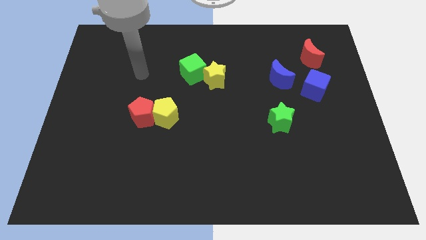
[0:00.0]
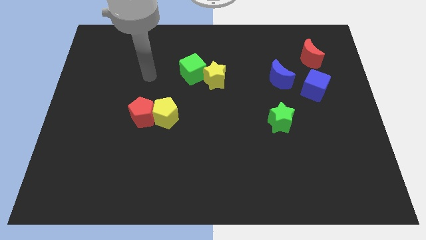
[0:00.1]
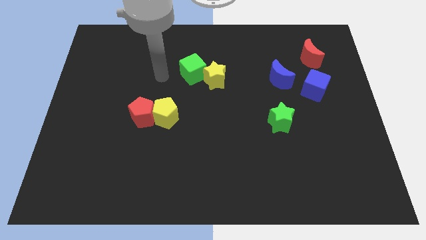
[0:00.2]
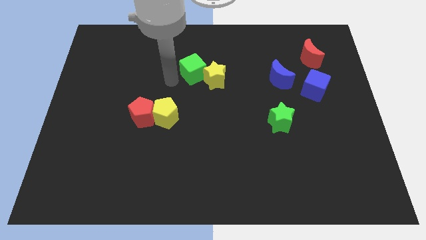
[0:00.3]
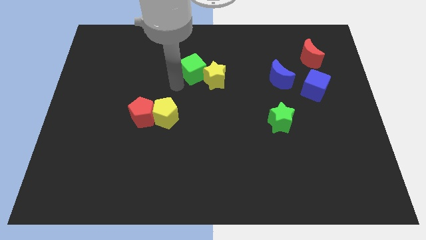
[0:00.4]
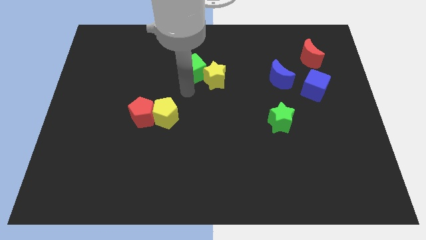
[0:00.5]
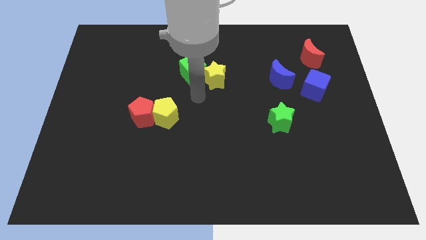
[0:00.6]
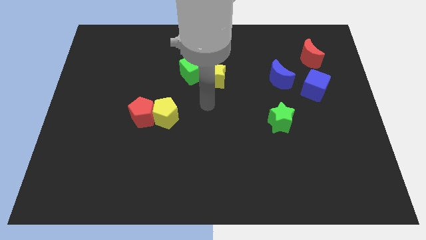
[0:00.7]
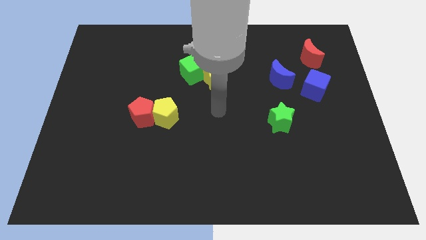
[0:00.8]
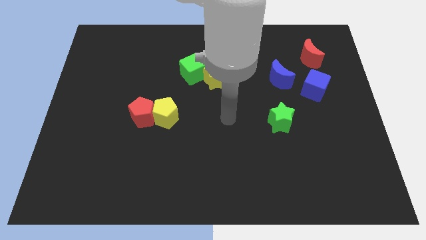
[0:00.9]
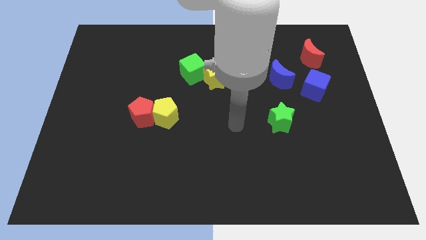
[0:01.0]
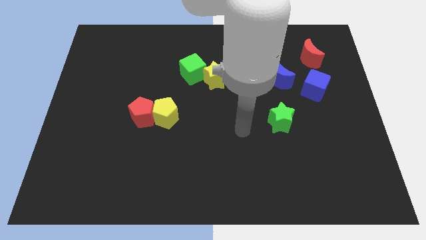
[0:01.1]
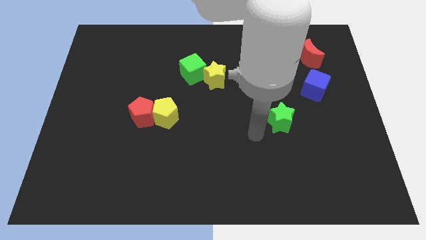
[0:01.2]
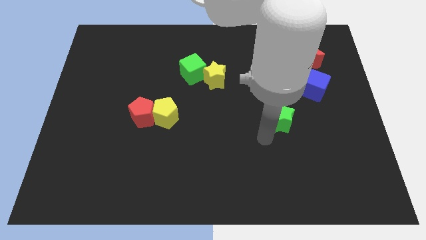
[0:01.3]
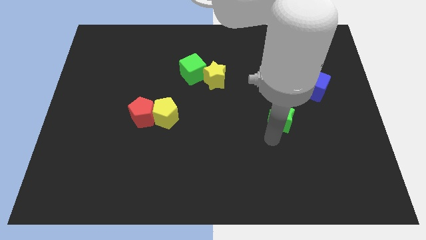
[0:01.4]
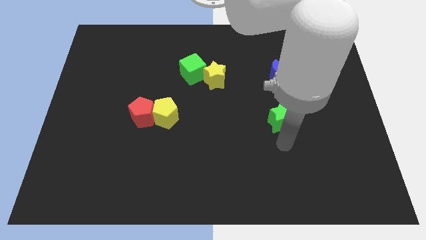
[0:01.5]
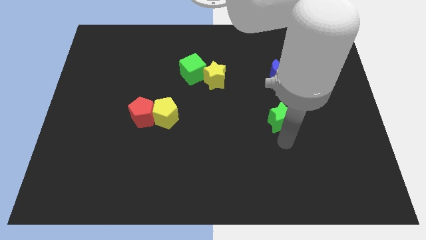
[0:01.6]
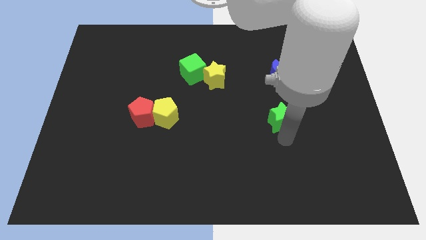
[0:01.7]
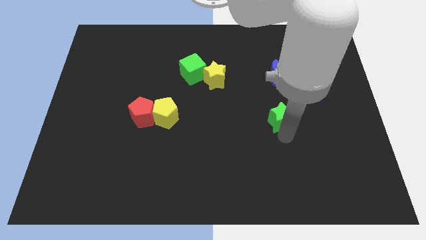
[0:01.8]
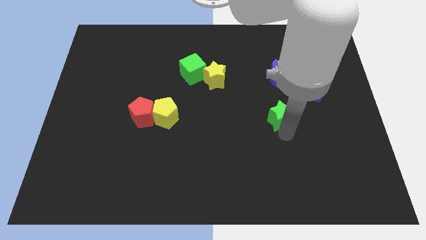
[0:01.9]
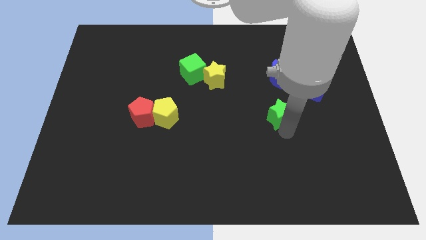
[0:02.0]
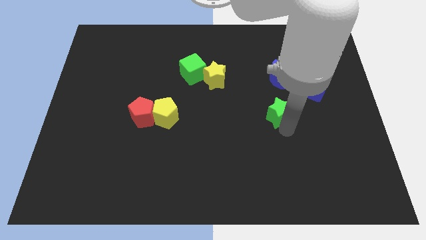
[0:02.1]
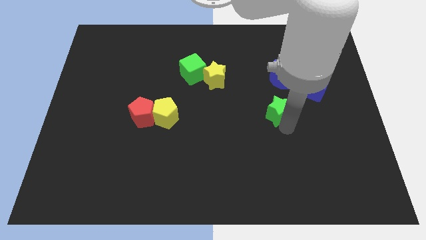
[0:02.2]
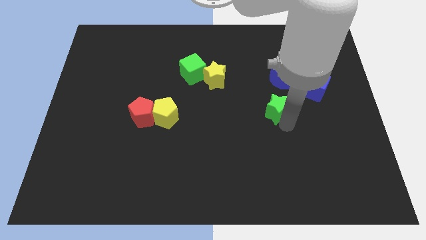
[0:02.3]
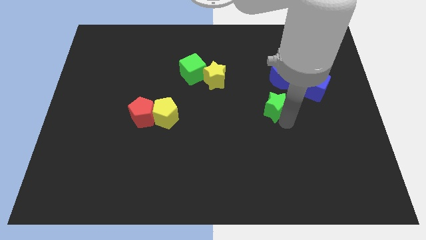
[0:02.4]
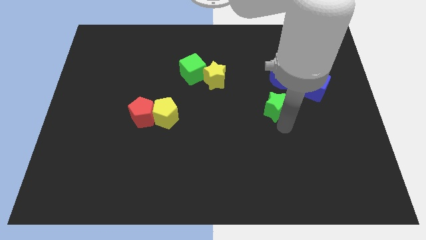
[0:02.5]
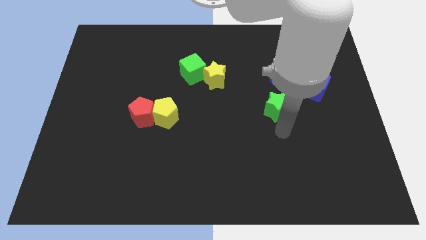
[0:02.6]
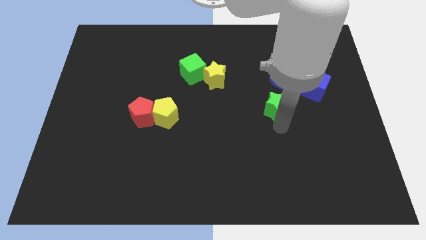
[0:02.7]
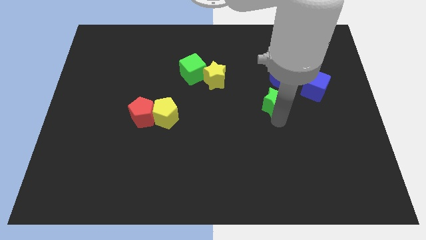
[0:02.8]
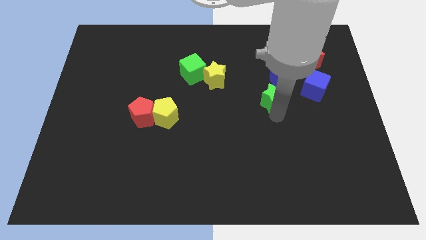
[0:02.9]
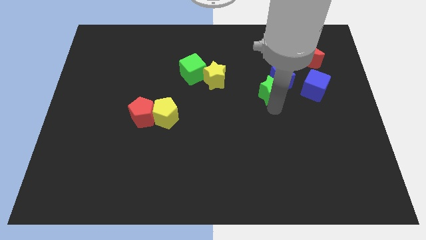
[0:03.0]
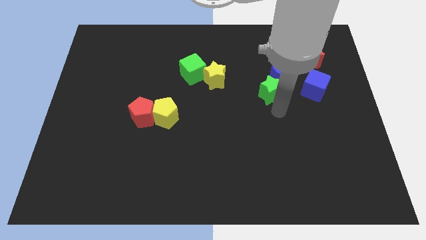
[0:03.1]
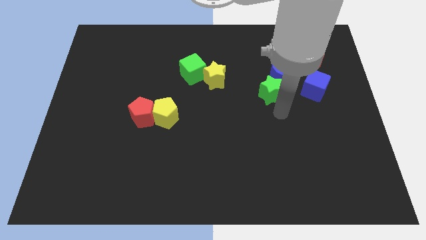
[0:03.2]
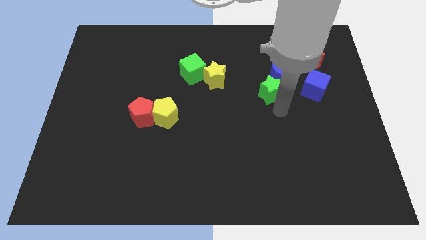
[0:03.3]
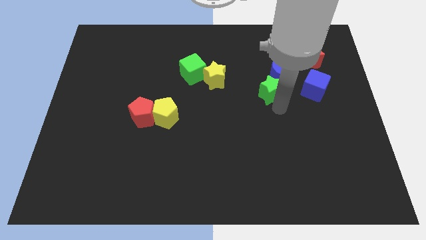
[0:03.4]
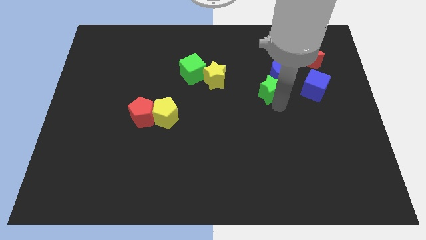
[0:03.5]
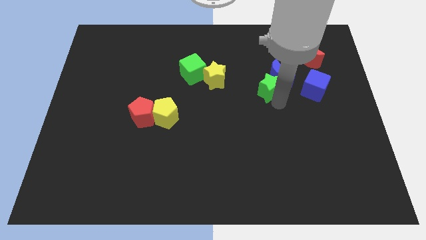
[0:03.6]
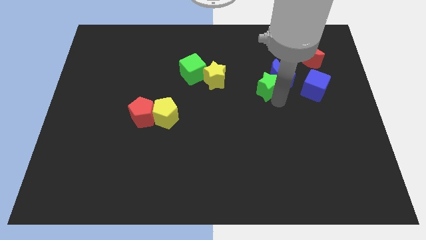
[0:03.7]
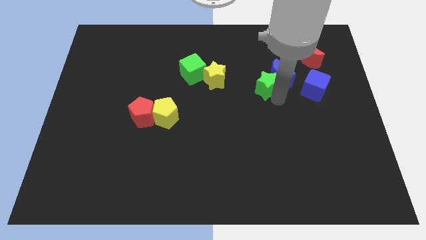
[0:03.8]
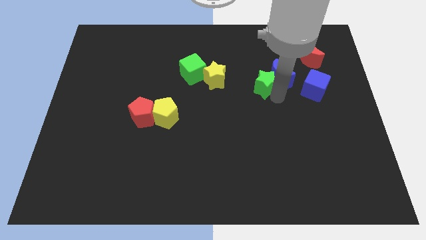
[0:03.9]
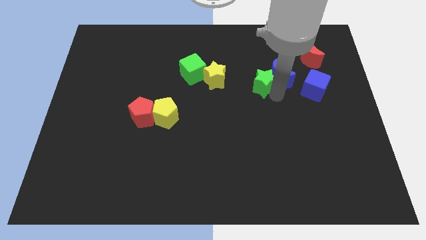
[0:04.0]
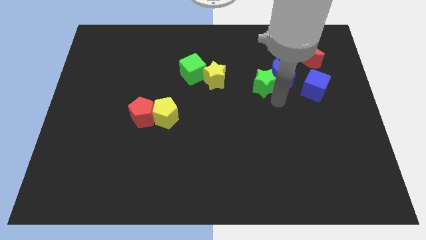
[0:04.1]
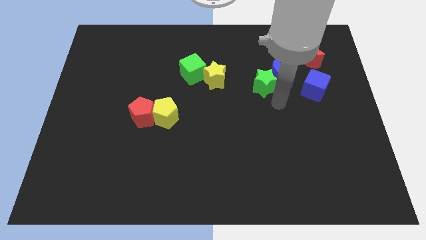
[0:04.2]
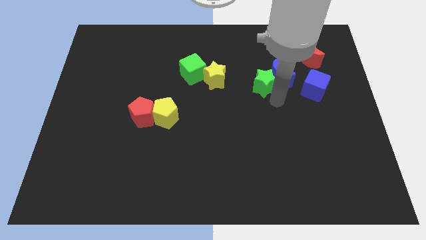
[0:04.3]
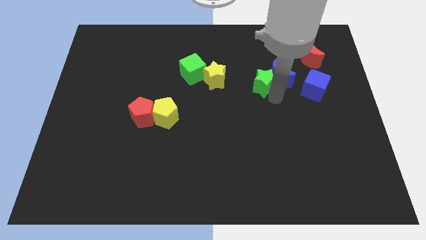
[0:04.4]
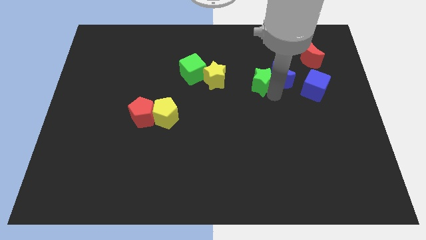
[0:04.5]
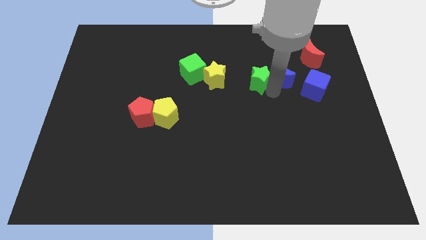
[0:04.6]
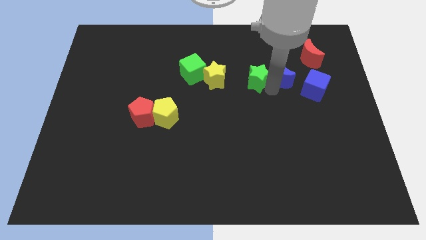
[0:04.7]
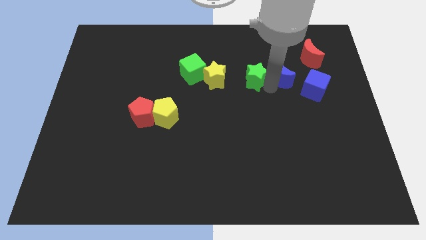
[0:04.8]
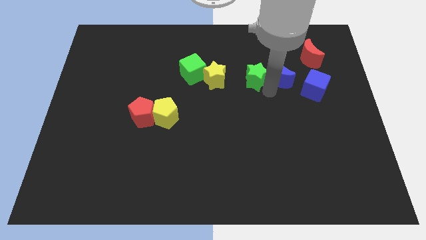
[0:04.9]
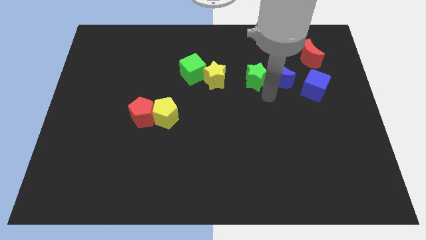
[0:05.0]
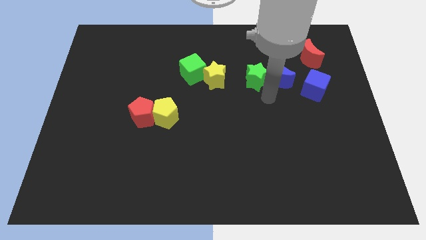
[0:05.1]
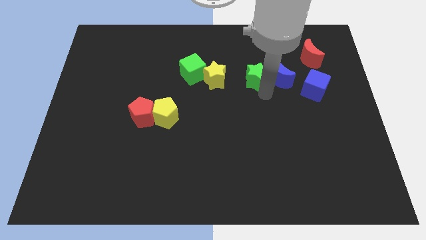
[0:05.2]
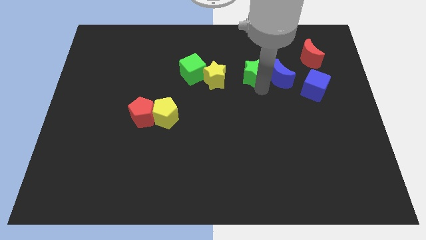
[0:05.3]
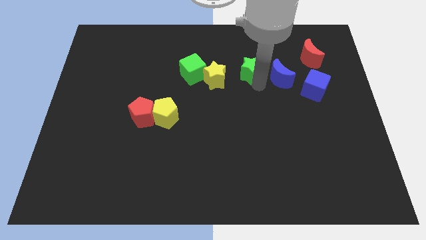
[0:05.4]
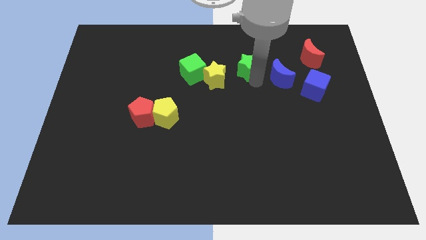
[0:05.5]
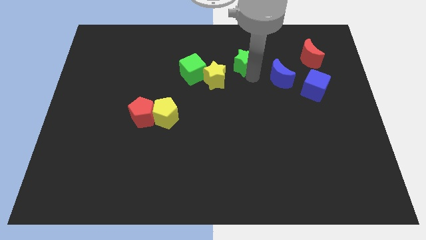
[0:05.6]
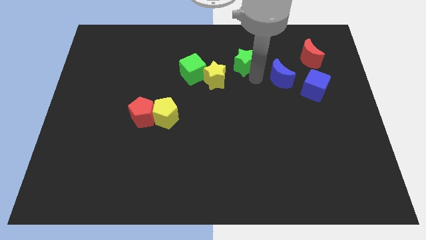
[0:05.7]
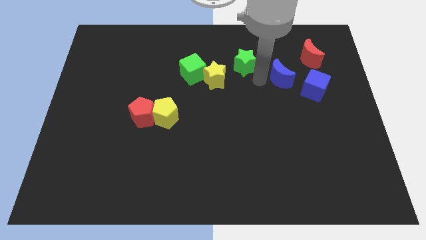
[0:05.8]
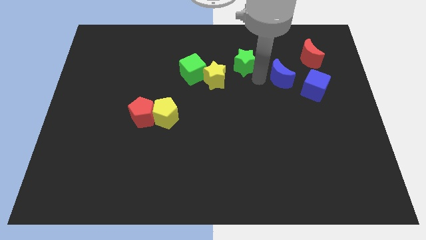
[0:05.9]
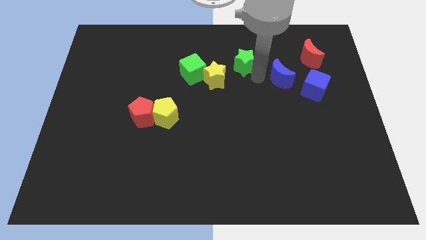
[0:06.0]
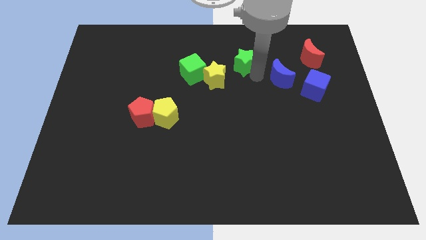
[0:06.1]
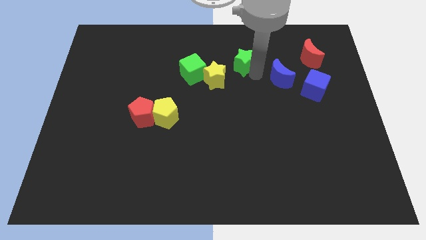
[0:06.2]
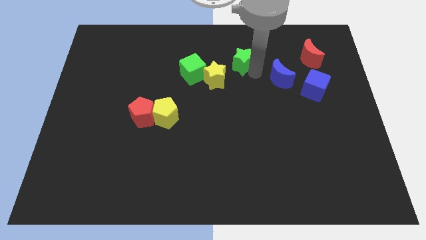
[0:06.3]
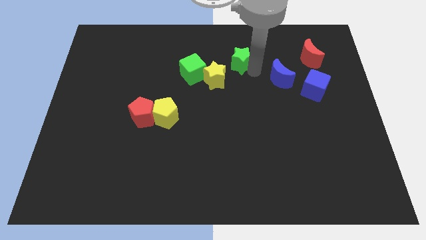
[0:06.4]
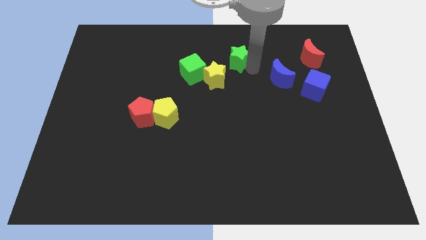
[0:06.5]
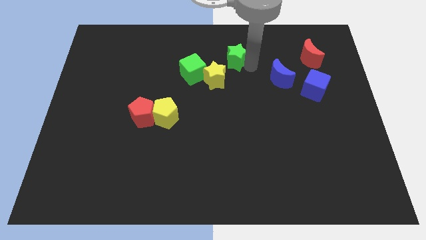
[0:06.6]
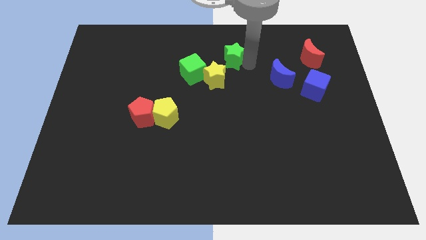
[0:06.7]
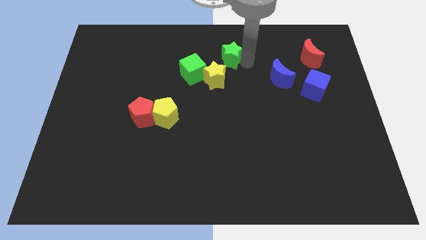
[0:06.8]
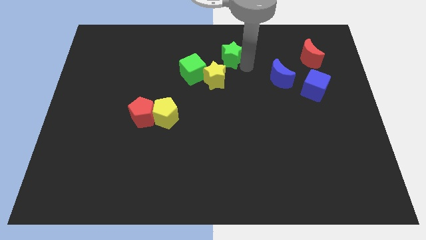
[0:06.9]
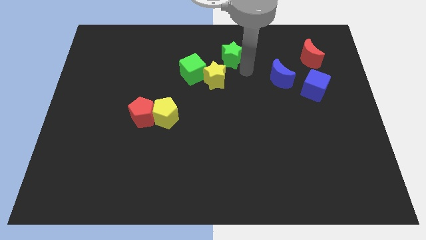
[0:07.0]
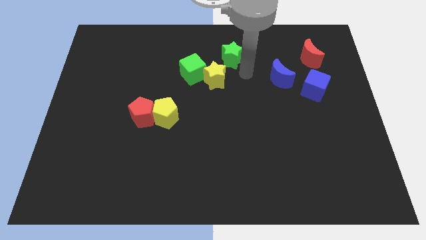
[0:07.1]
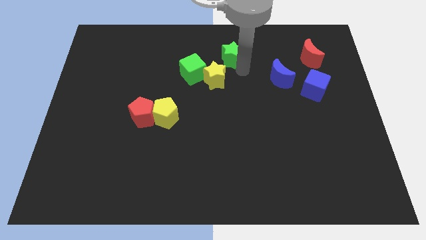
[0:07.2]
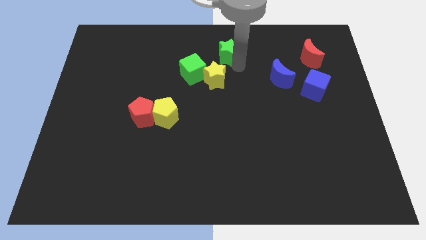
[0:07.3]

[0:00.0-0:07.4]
move the green star to the towards your base
